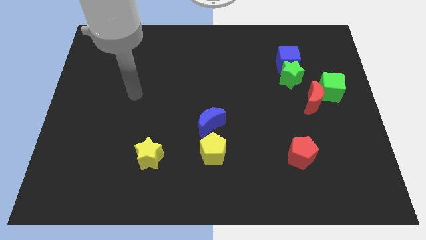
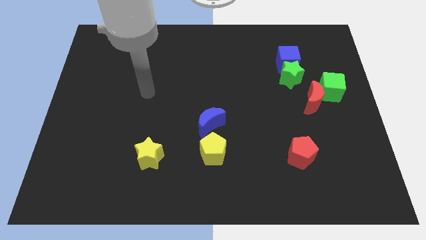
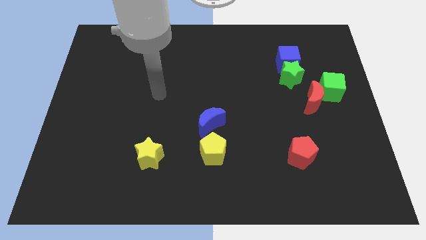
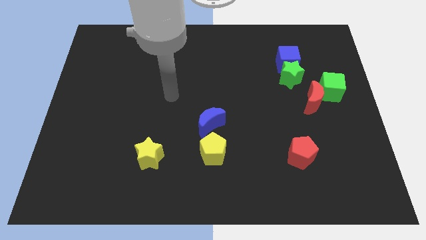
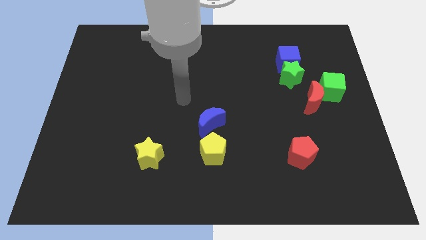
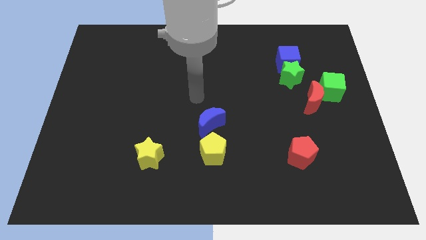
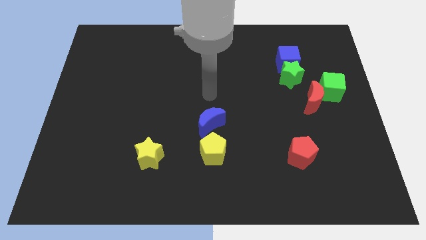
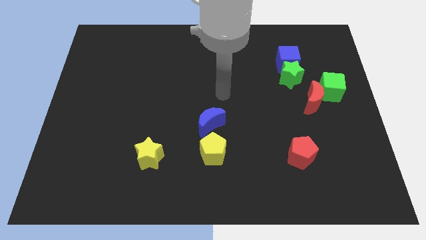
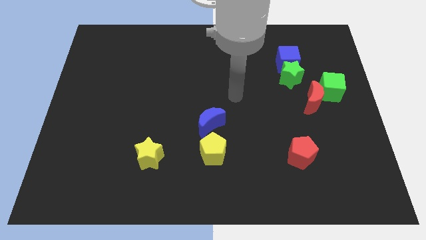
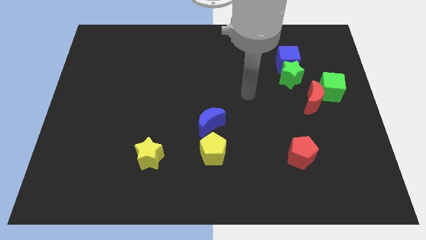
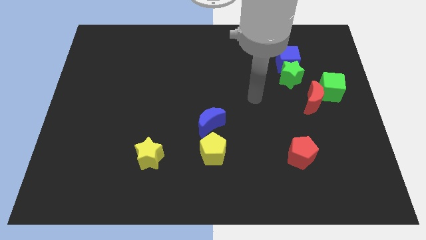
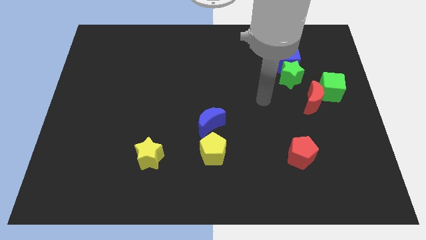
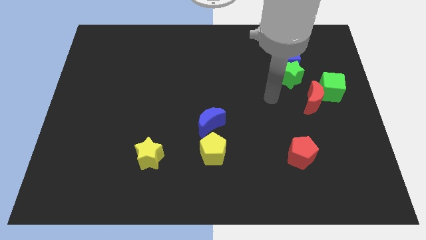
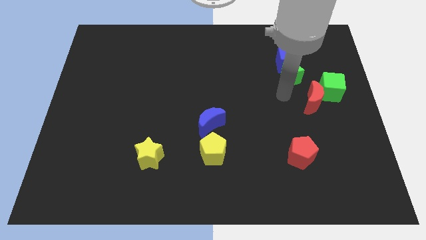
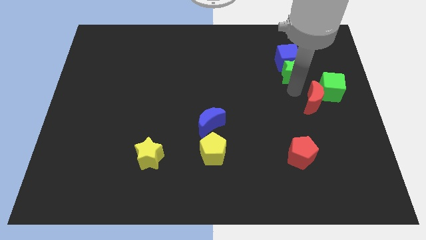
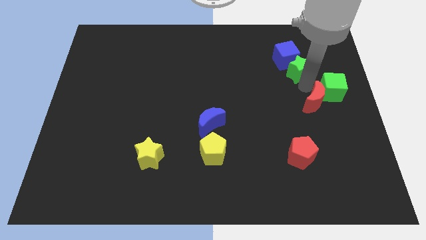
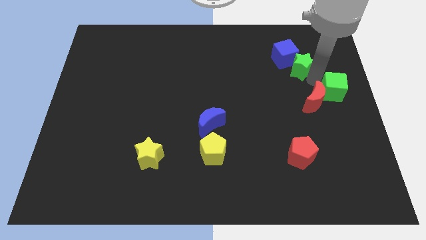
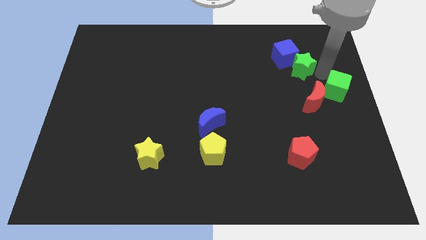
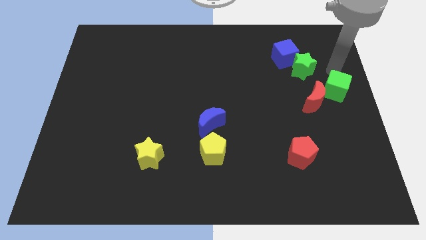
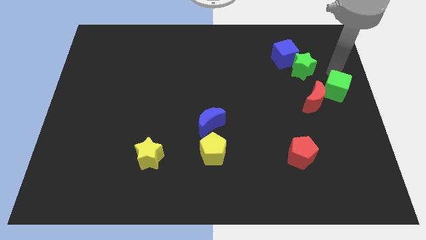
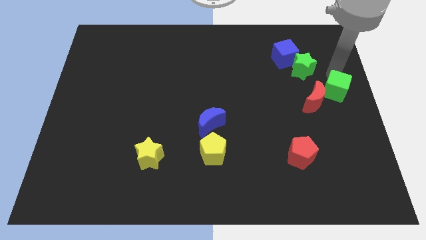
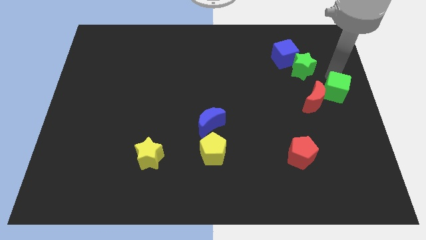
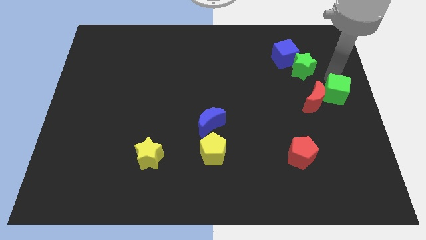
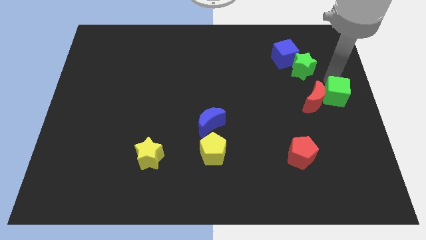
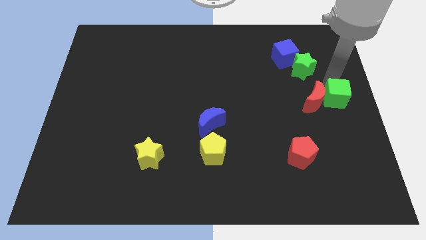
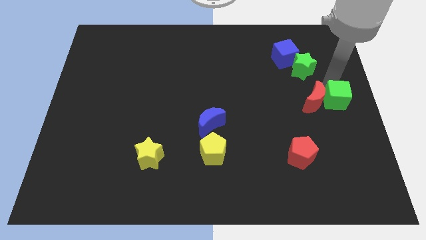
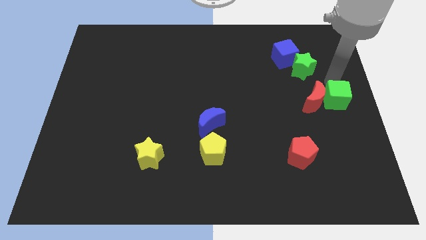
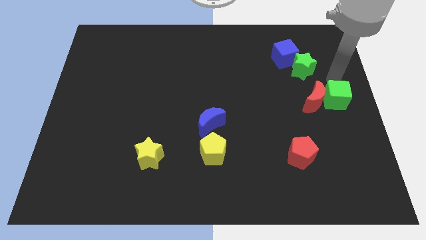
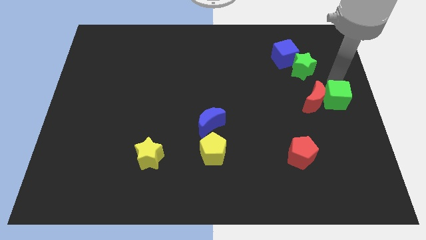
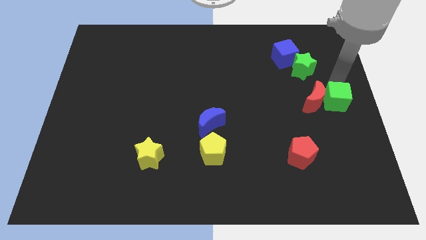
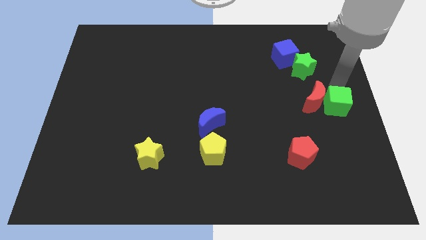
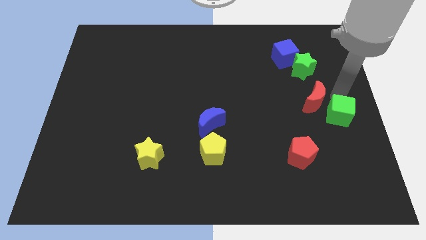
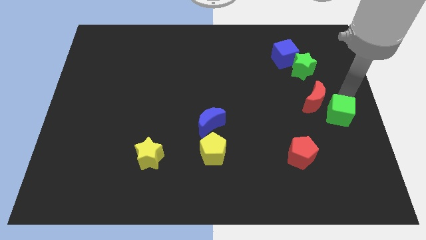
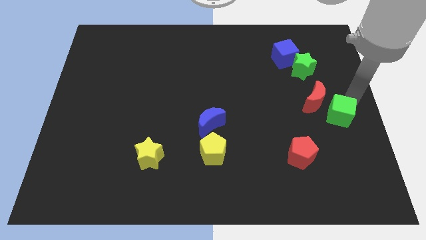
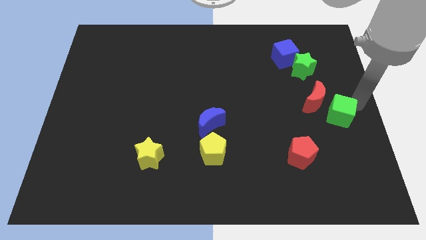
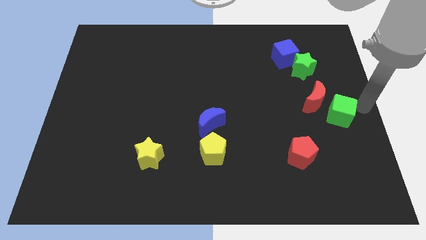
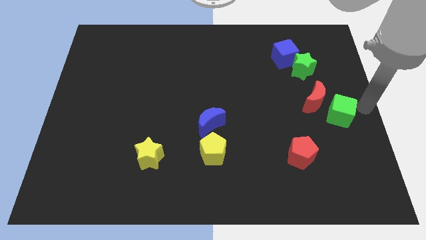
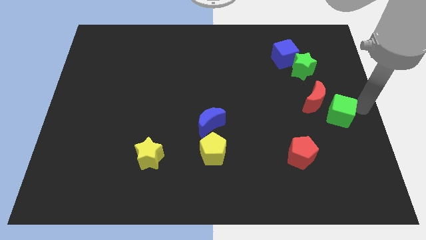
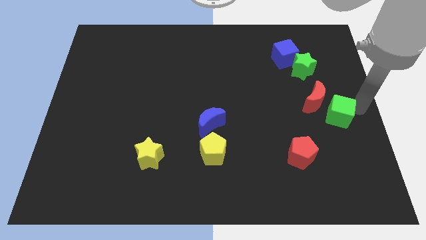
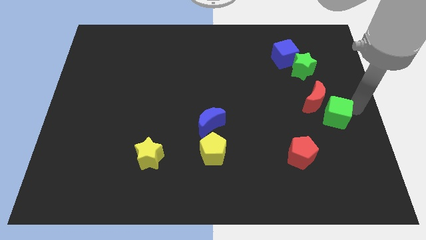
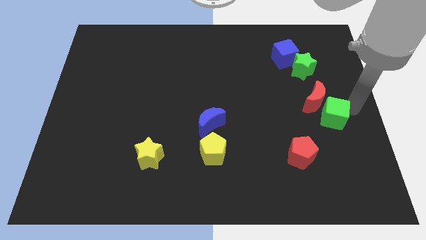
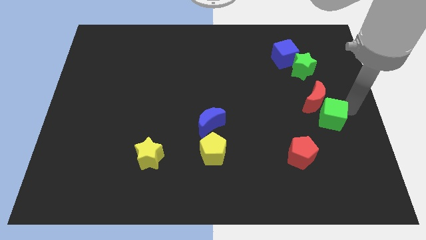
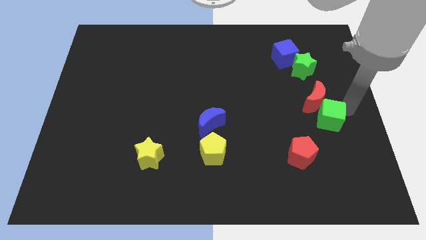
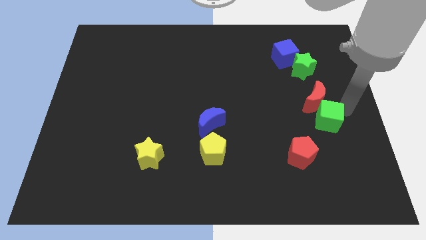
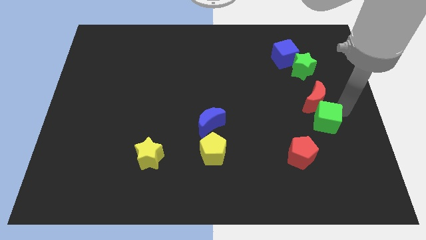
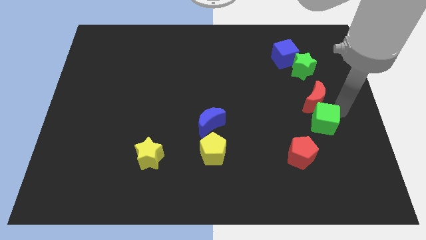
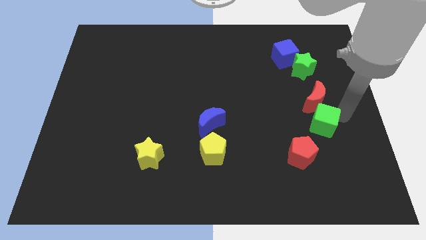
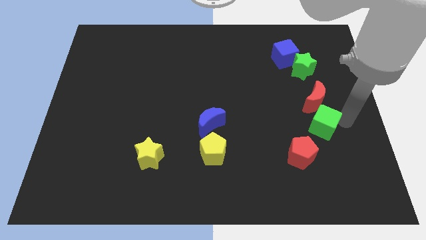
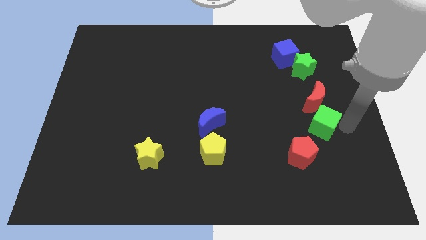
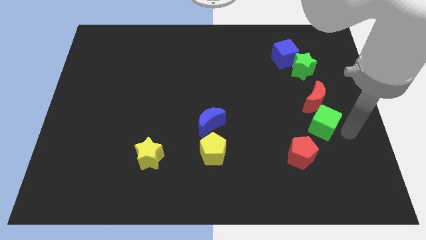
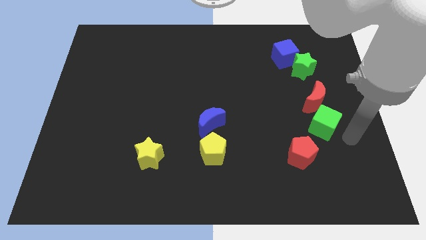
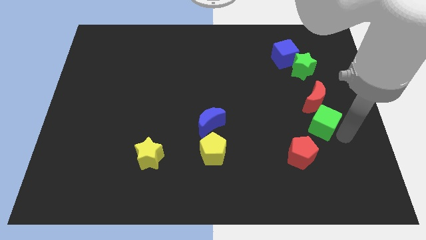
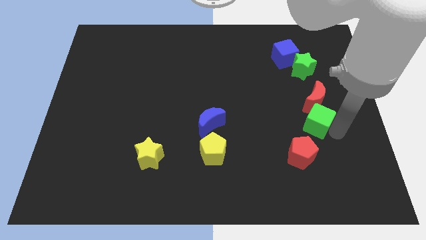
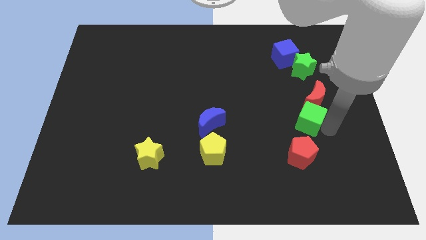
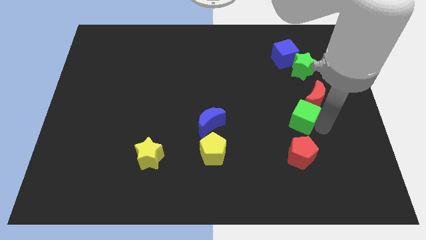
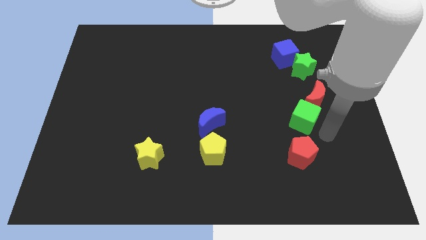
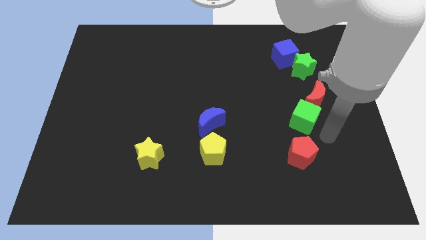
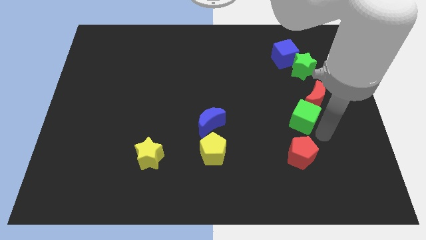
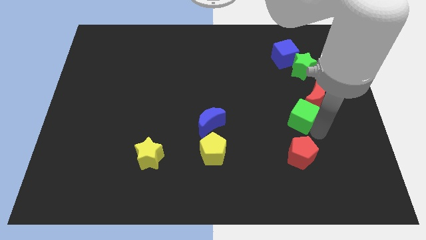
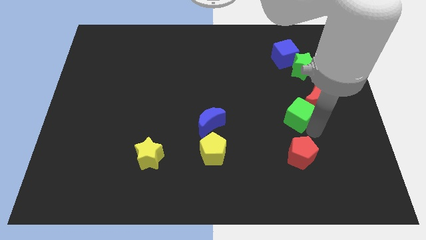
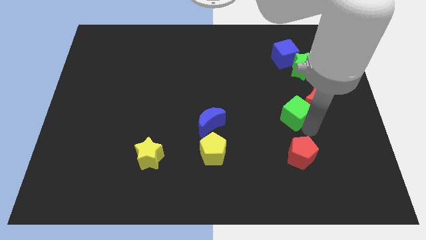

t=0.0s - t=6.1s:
slightly push the green cube left

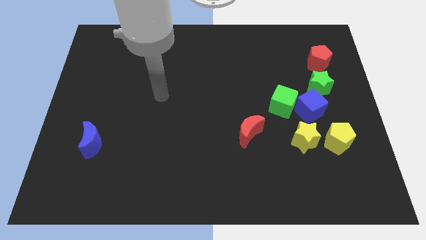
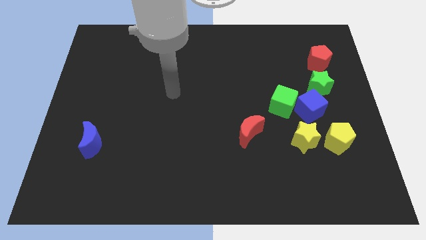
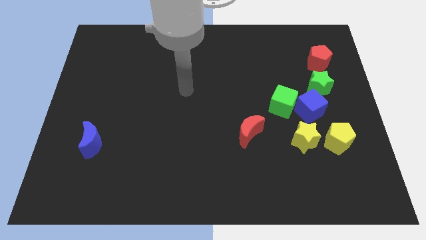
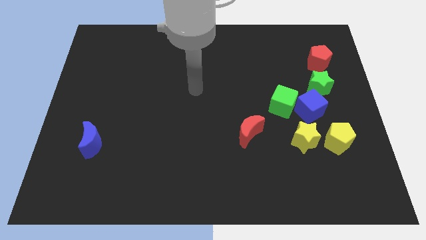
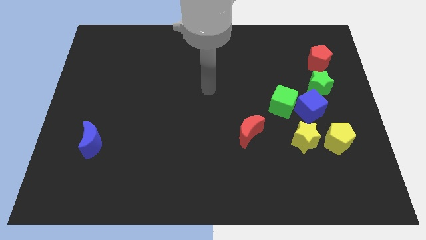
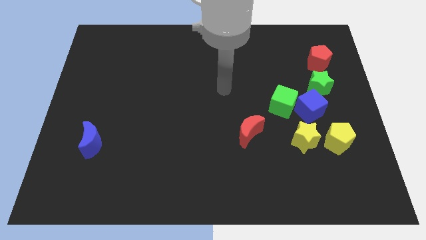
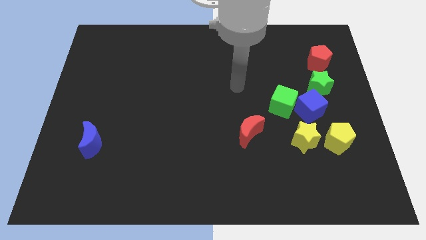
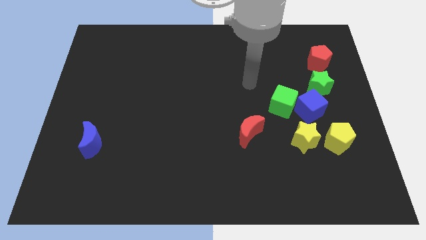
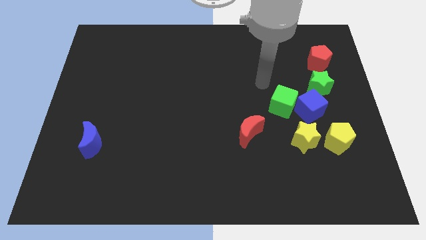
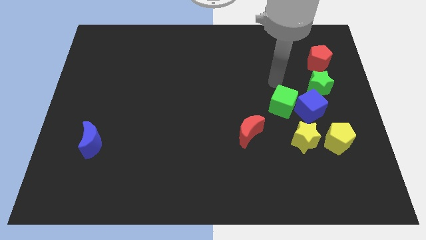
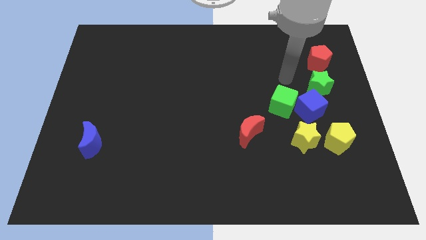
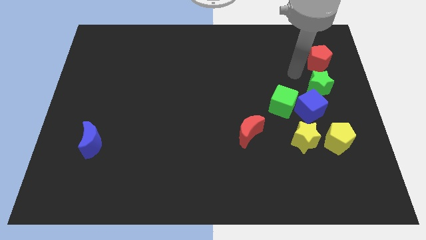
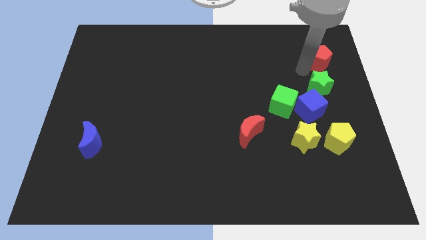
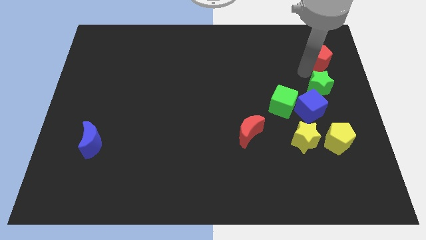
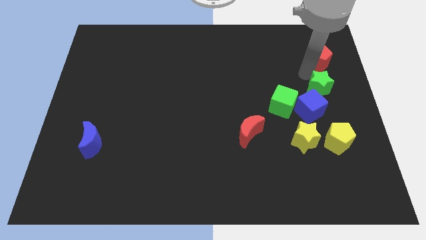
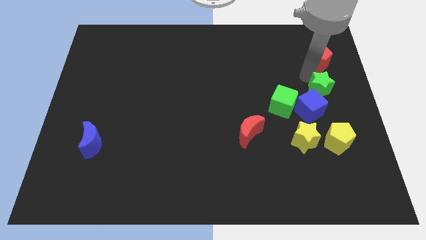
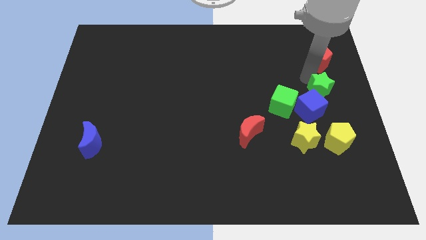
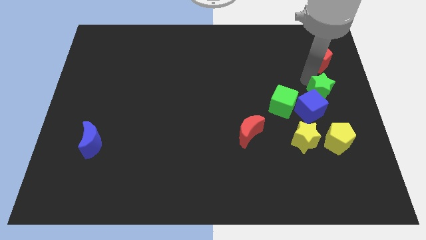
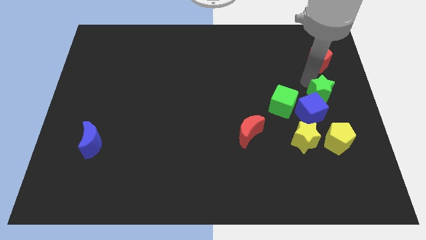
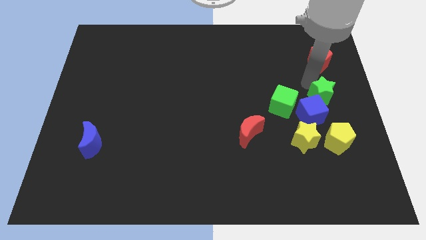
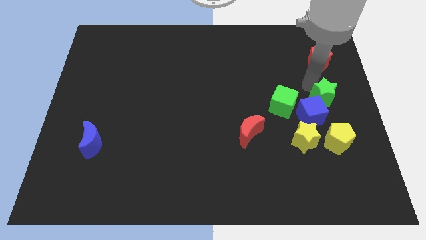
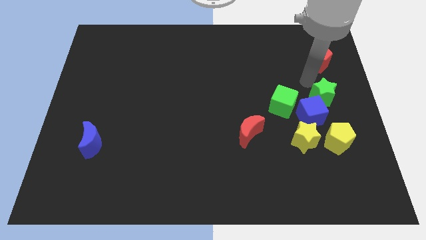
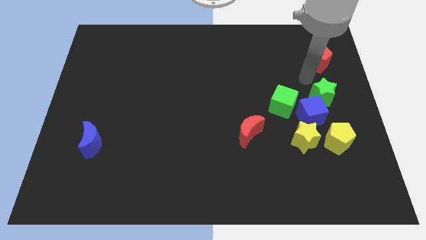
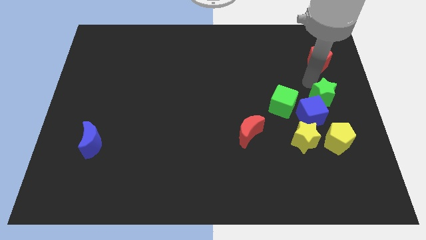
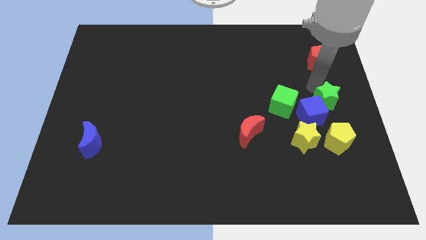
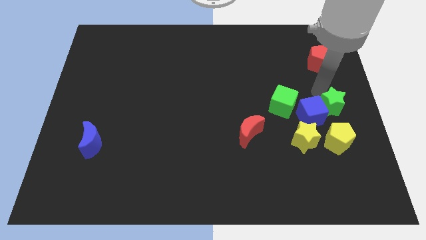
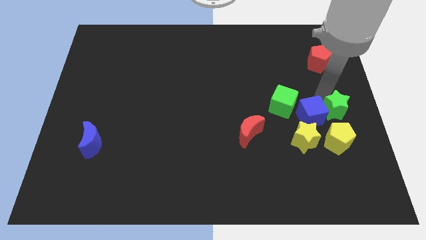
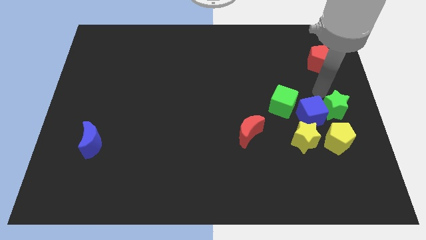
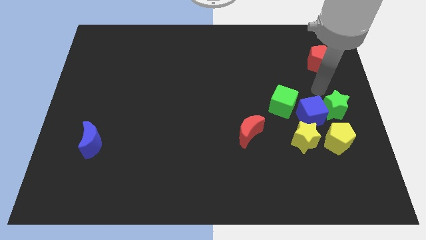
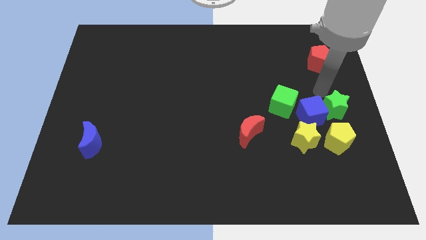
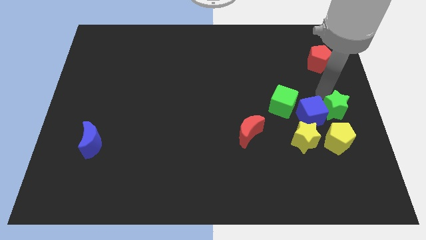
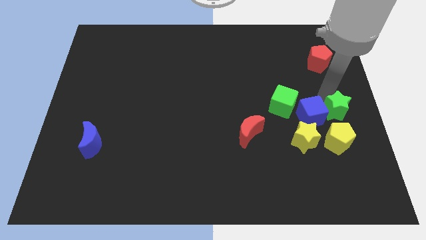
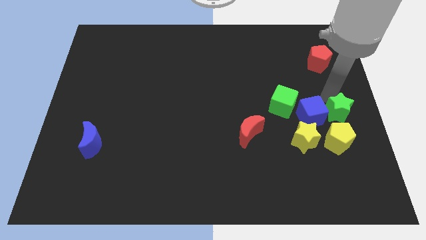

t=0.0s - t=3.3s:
slightly slide the green star down
